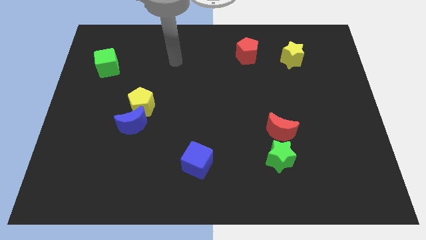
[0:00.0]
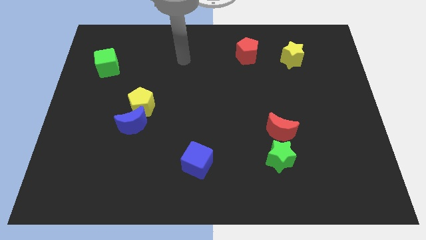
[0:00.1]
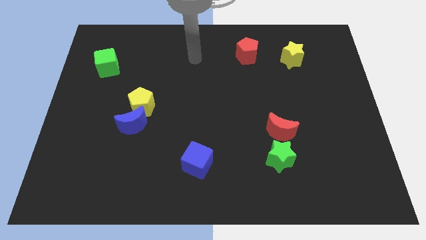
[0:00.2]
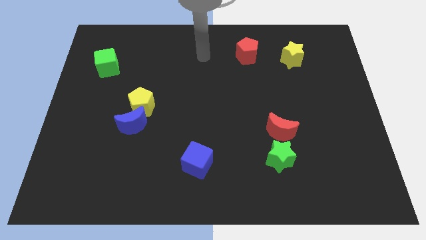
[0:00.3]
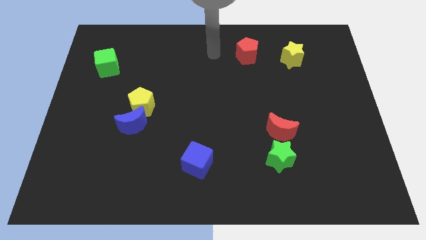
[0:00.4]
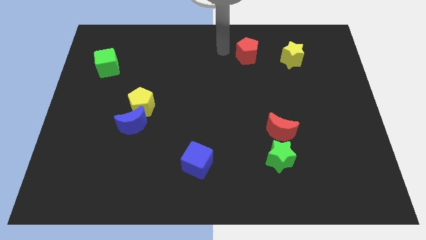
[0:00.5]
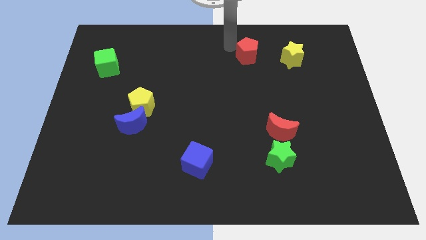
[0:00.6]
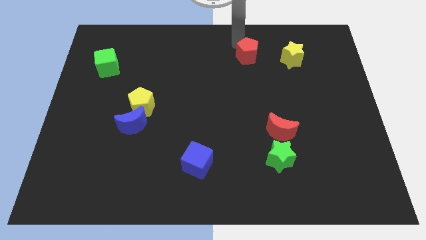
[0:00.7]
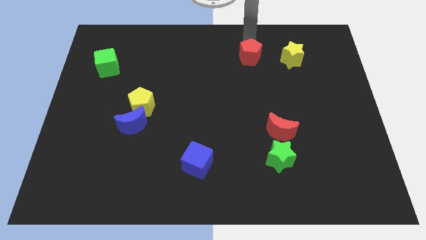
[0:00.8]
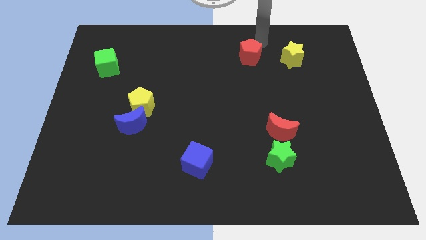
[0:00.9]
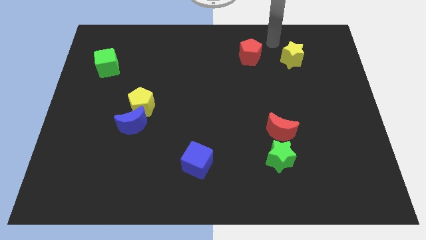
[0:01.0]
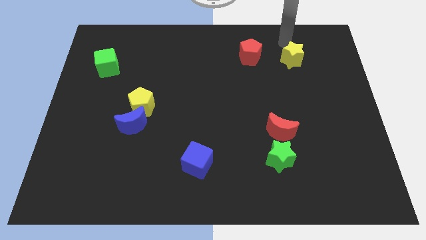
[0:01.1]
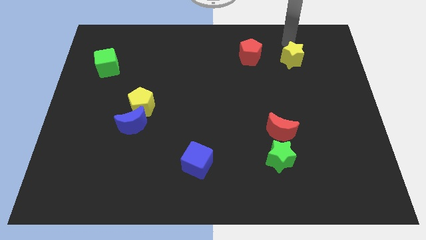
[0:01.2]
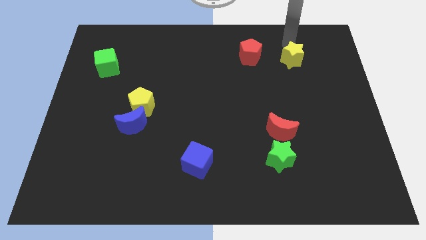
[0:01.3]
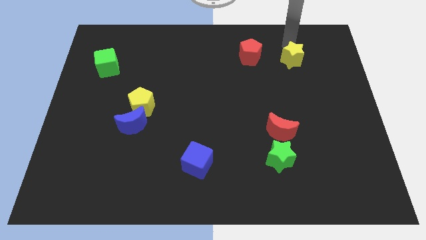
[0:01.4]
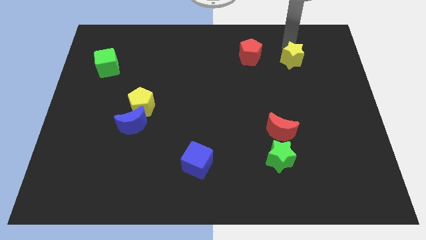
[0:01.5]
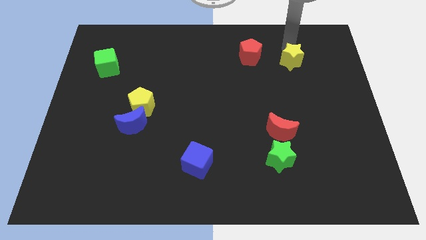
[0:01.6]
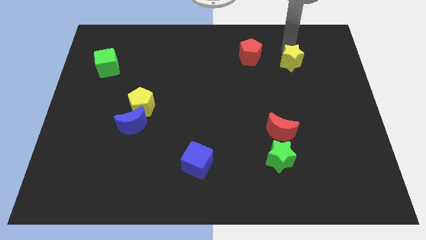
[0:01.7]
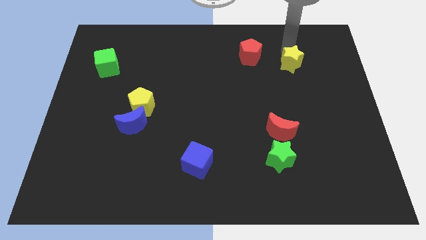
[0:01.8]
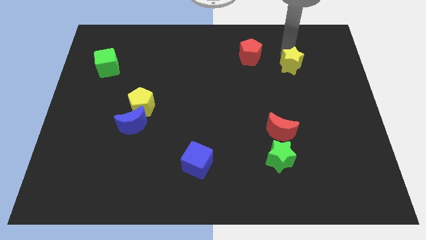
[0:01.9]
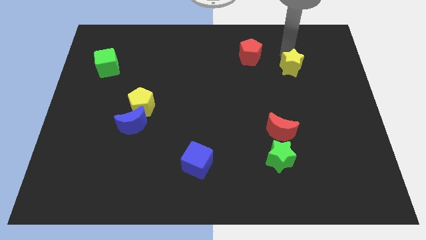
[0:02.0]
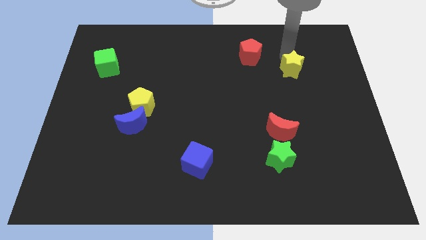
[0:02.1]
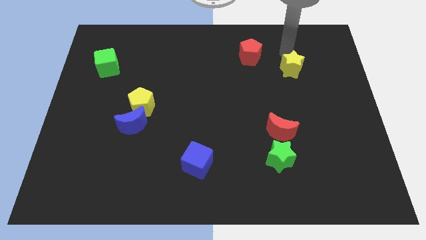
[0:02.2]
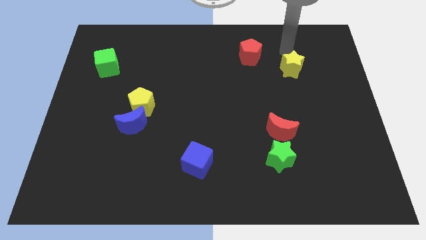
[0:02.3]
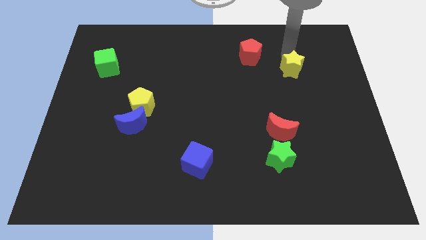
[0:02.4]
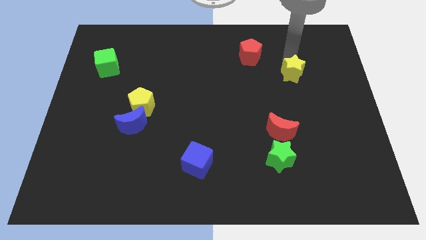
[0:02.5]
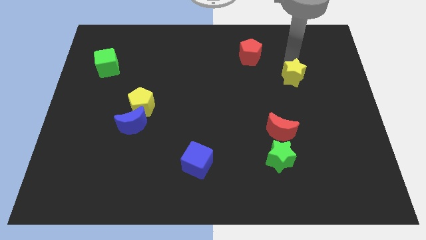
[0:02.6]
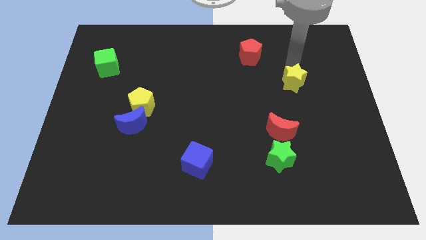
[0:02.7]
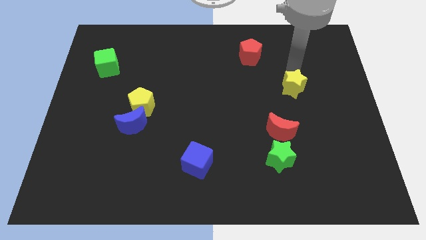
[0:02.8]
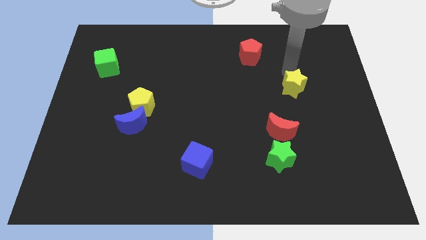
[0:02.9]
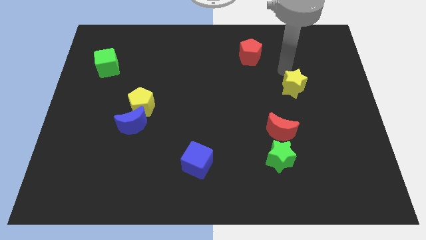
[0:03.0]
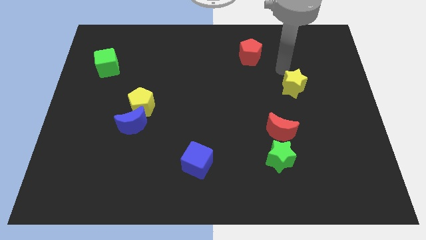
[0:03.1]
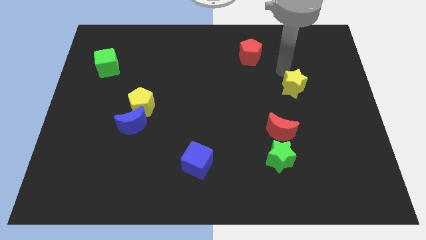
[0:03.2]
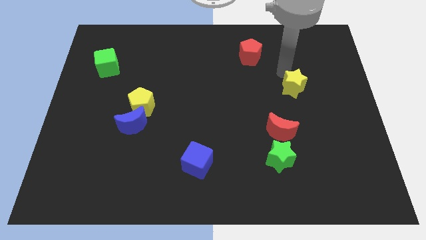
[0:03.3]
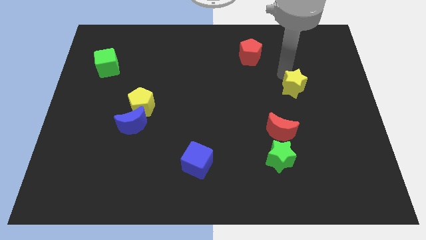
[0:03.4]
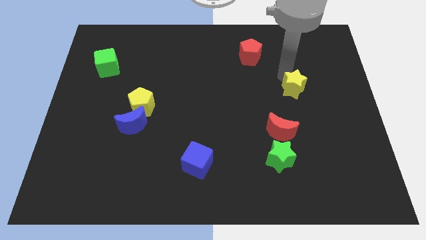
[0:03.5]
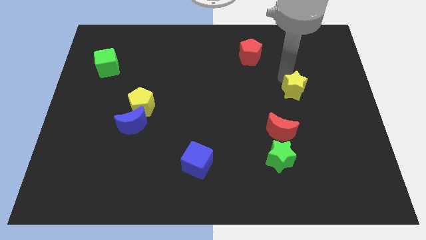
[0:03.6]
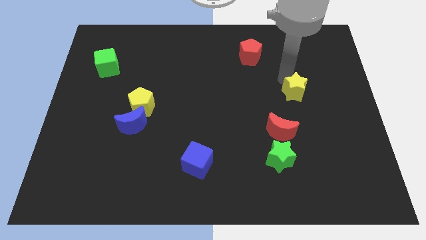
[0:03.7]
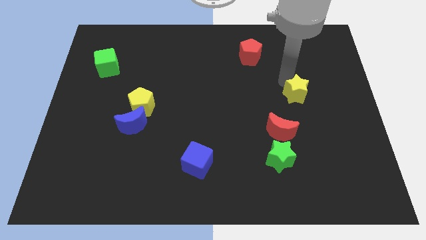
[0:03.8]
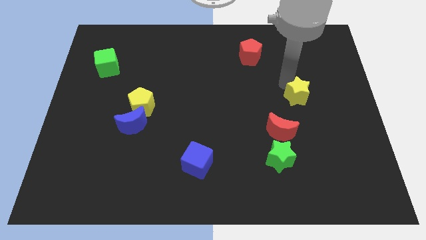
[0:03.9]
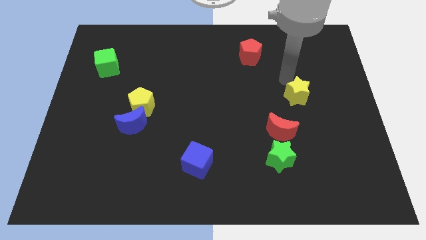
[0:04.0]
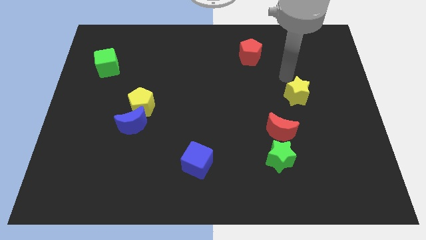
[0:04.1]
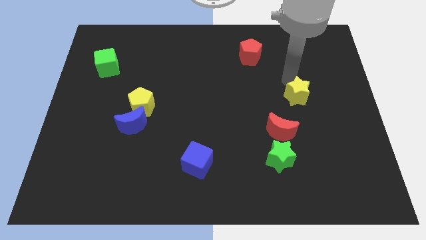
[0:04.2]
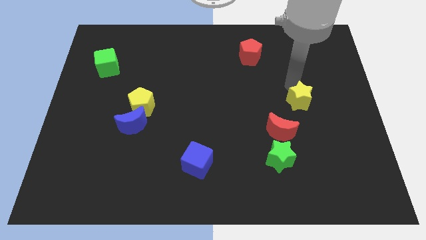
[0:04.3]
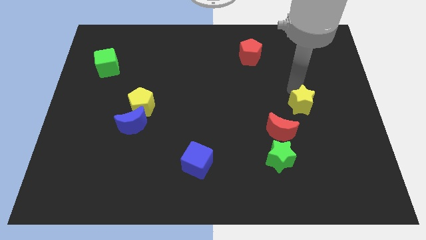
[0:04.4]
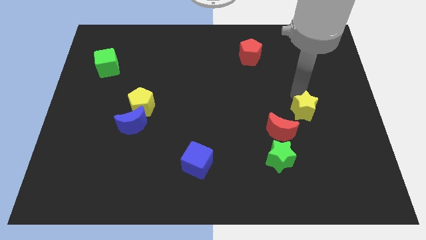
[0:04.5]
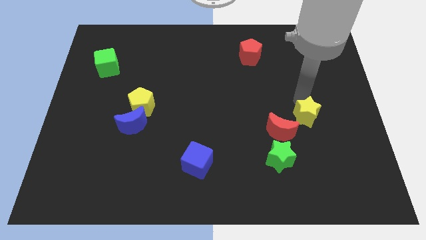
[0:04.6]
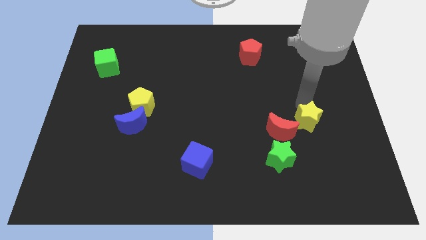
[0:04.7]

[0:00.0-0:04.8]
move the yellow star downwards

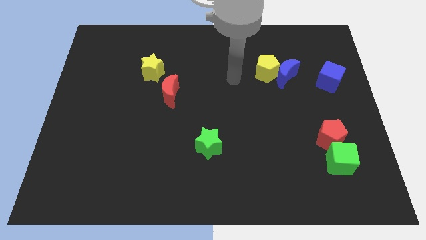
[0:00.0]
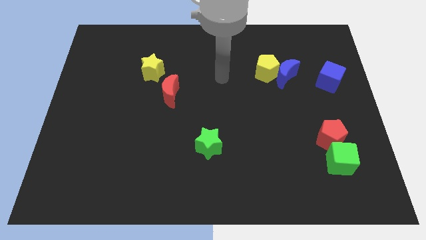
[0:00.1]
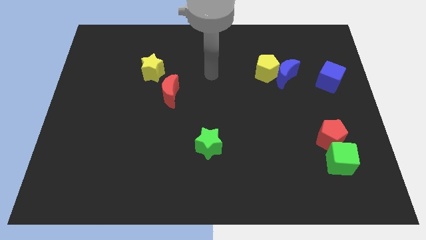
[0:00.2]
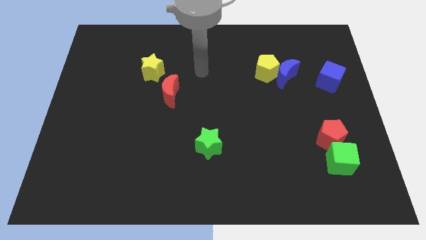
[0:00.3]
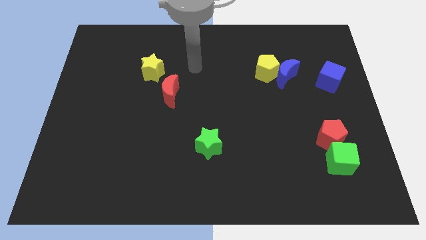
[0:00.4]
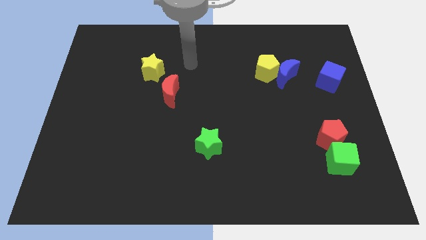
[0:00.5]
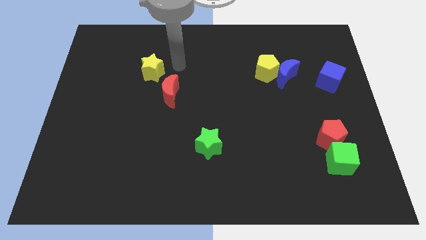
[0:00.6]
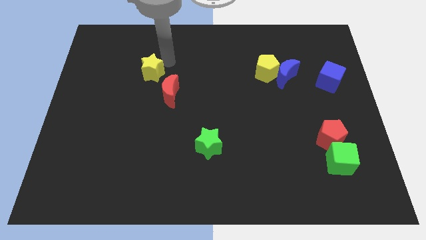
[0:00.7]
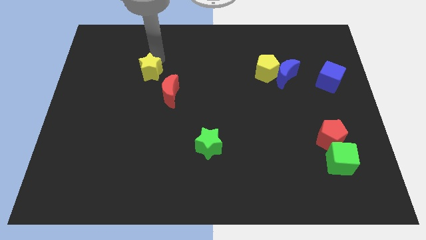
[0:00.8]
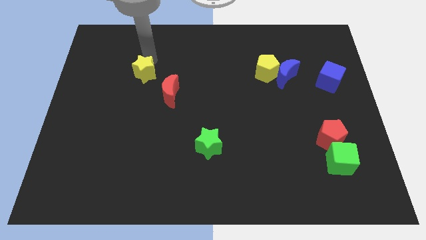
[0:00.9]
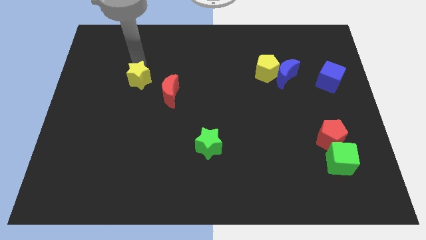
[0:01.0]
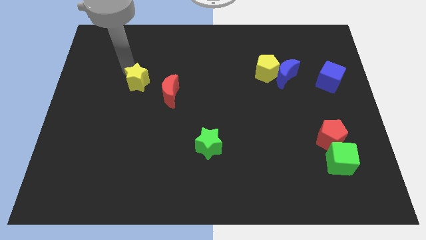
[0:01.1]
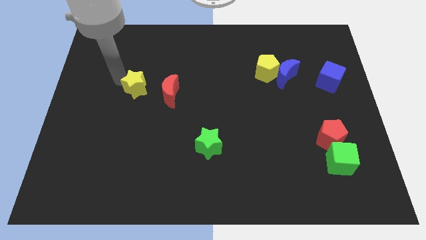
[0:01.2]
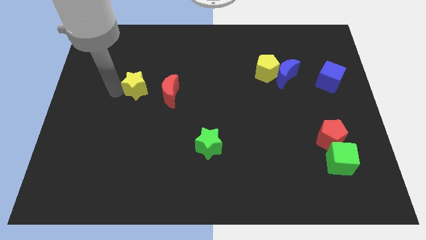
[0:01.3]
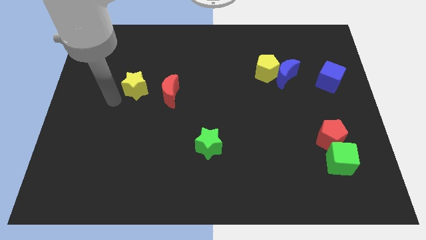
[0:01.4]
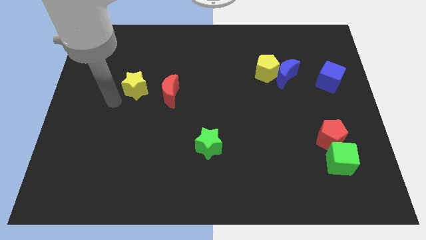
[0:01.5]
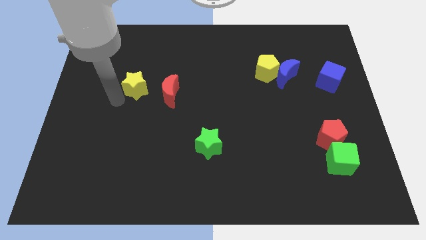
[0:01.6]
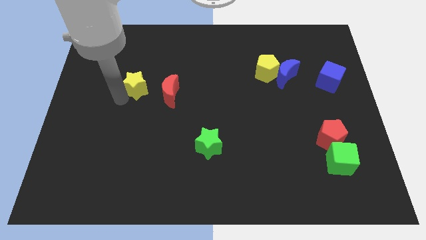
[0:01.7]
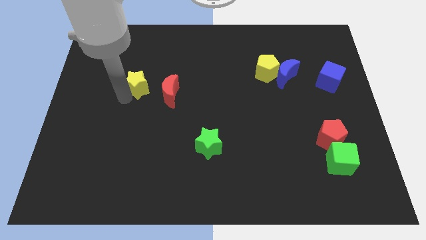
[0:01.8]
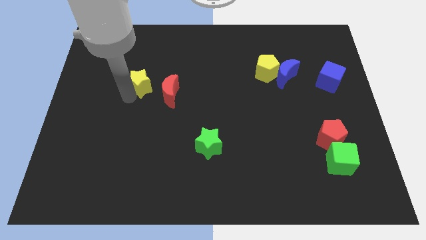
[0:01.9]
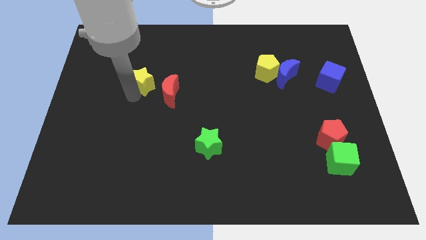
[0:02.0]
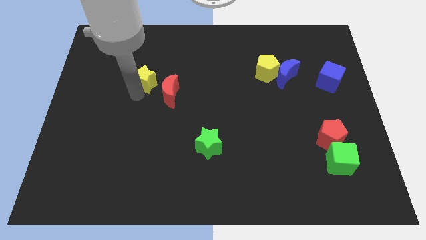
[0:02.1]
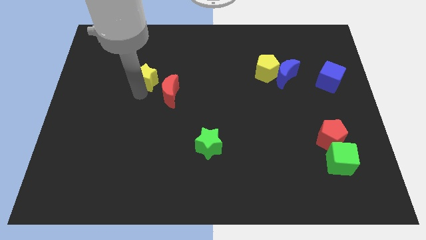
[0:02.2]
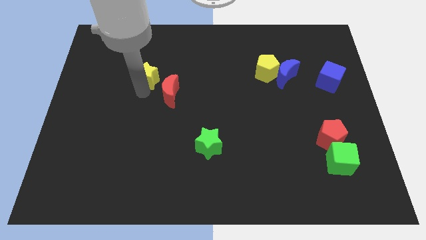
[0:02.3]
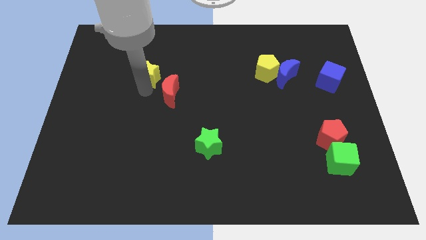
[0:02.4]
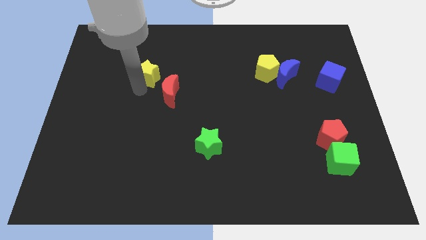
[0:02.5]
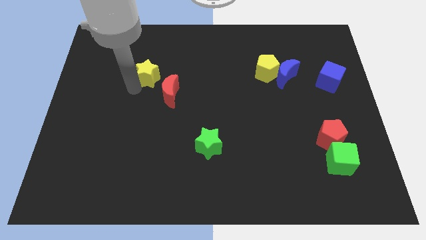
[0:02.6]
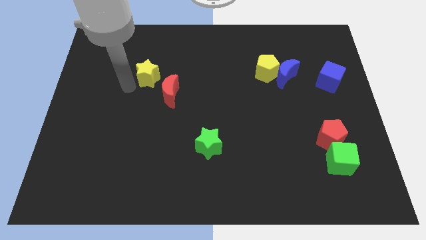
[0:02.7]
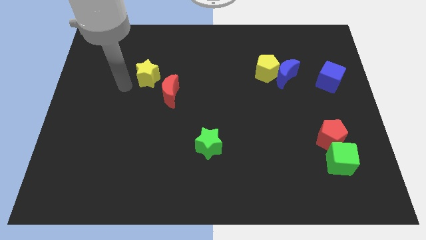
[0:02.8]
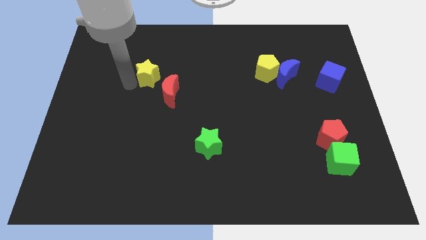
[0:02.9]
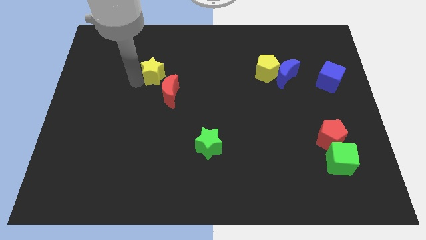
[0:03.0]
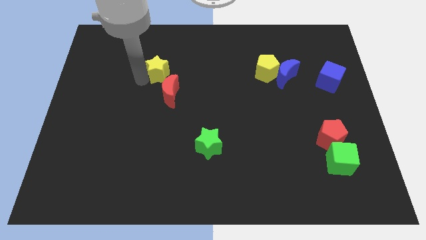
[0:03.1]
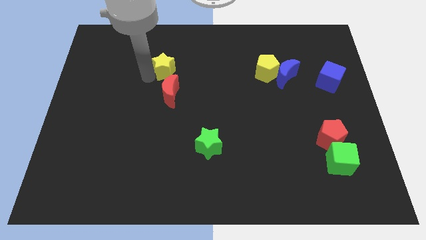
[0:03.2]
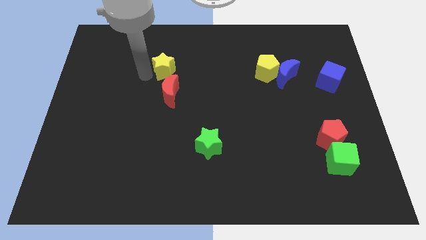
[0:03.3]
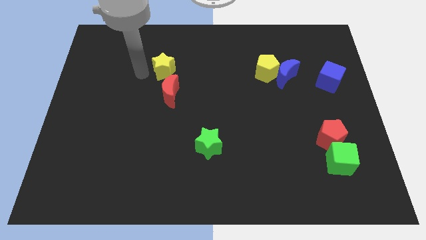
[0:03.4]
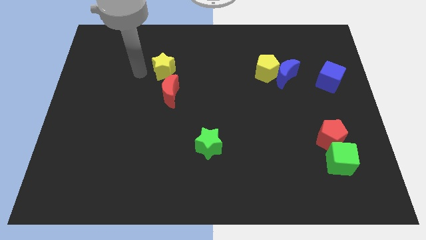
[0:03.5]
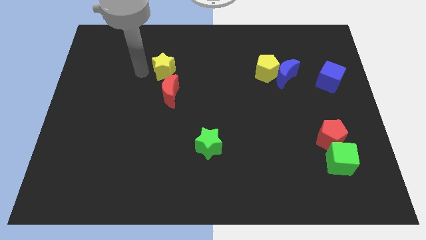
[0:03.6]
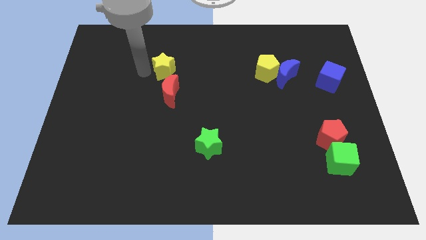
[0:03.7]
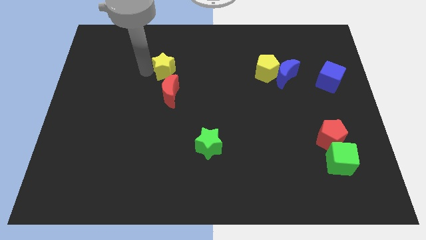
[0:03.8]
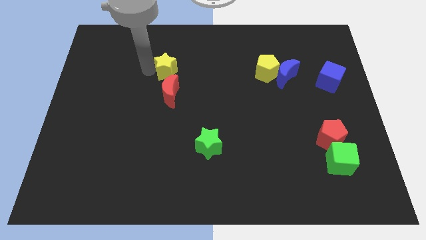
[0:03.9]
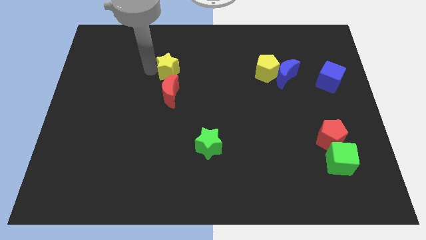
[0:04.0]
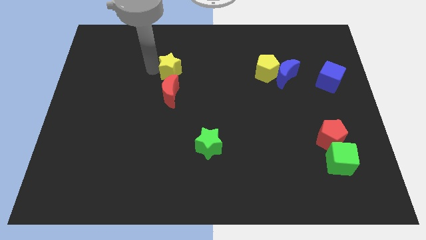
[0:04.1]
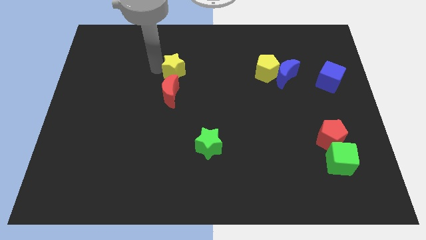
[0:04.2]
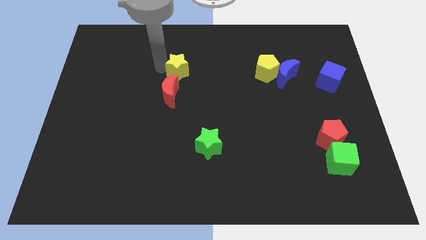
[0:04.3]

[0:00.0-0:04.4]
slide the yellow star slightly right
